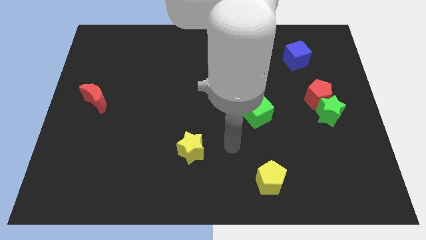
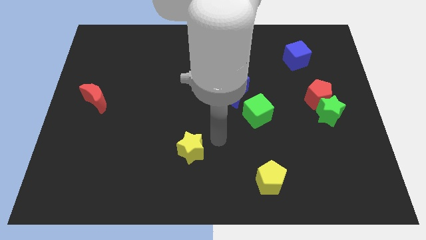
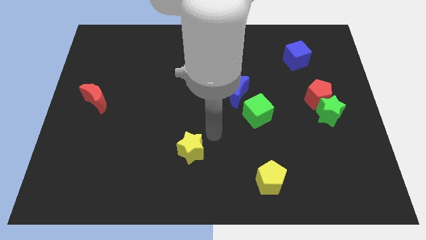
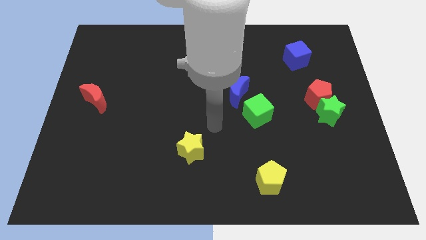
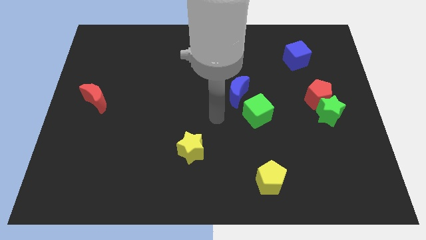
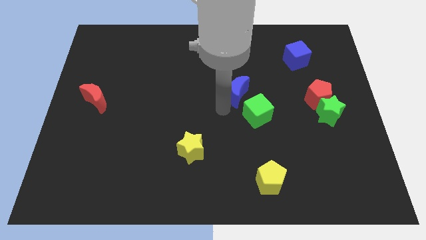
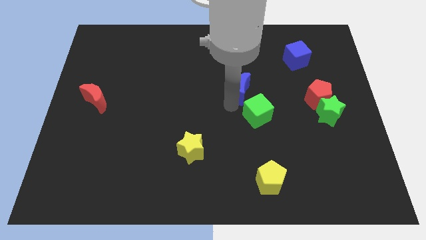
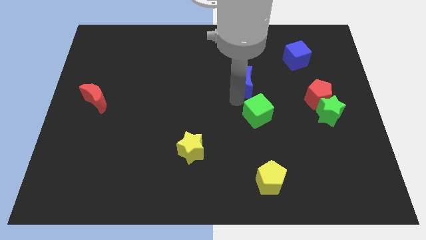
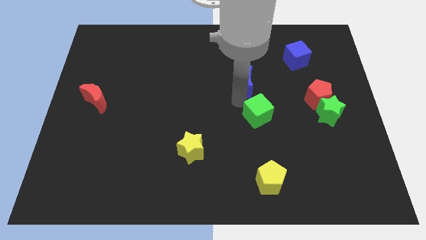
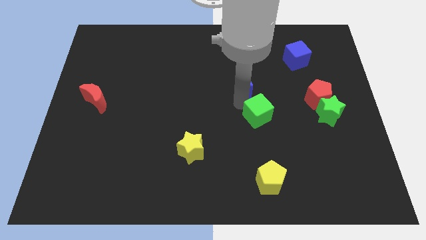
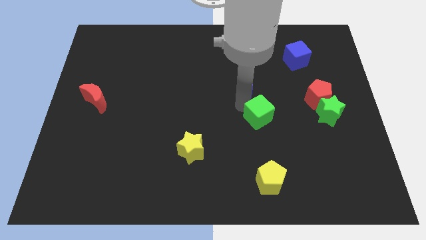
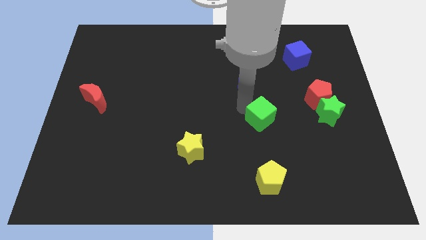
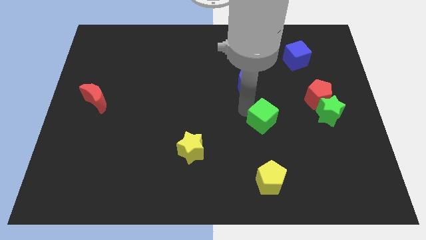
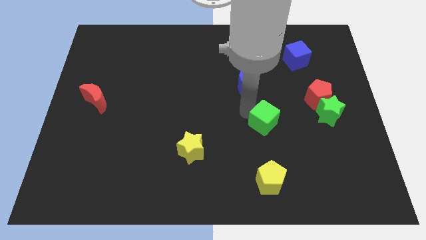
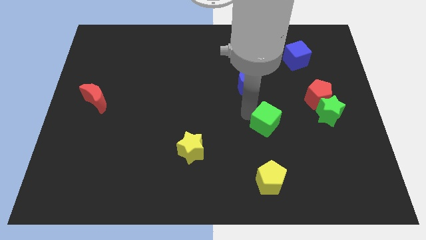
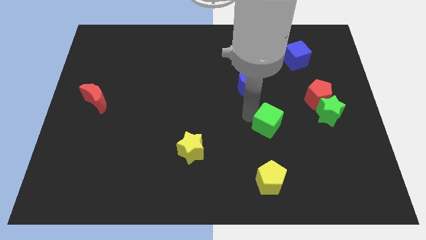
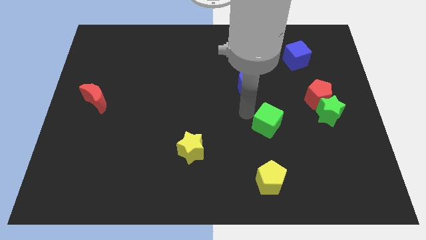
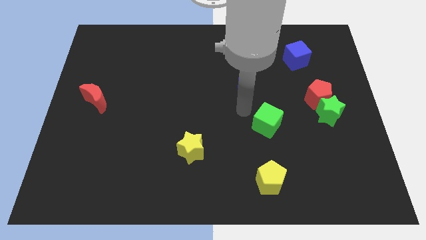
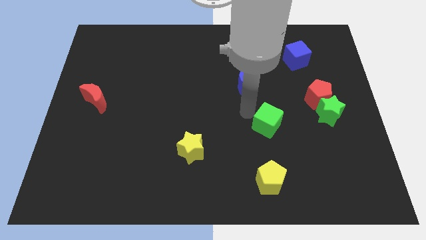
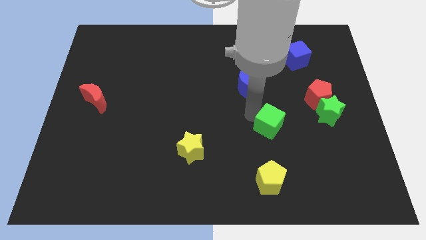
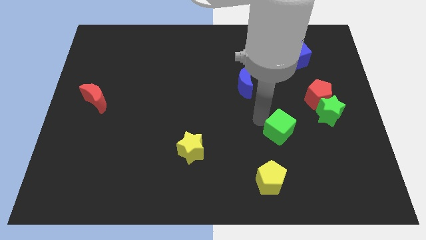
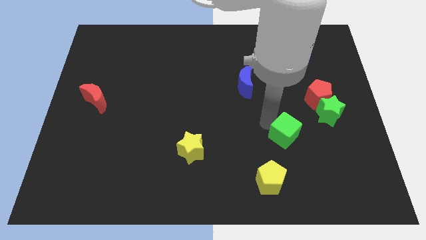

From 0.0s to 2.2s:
slide the green cube diagonally downwards and to the right slightly

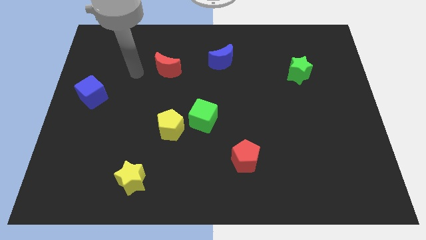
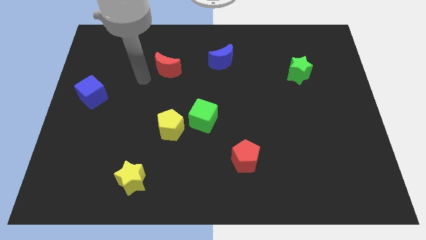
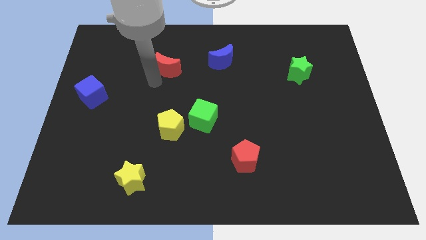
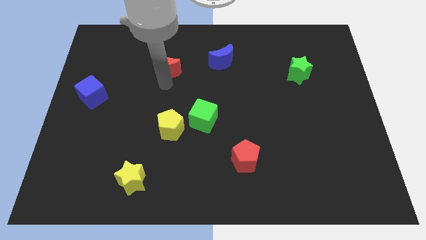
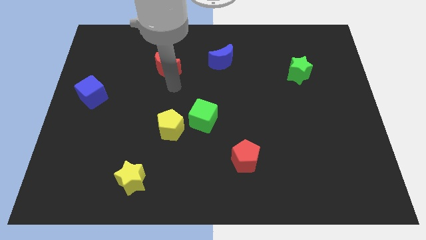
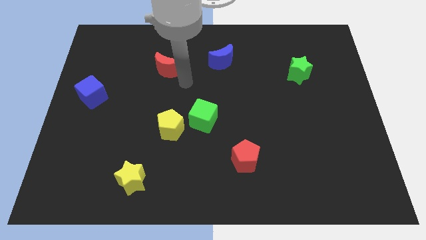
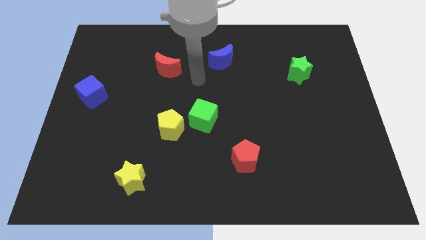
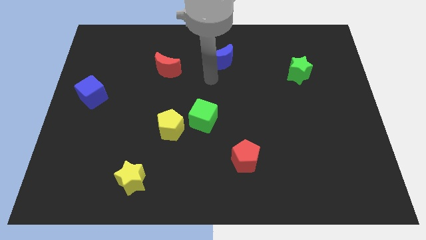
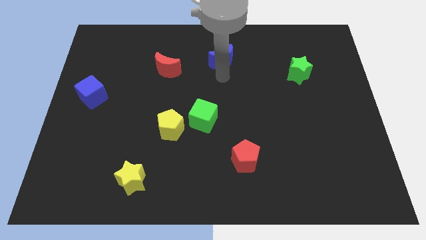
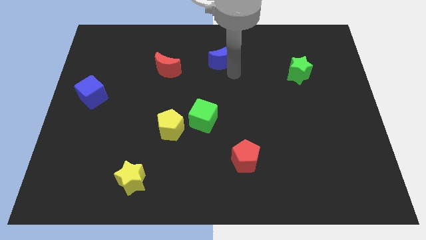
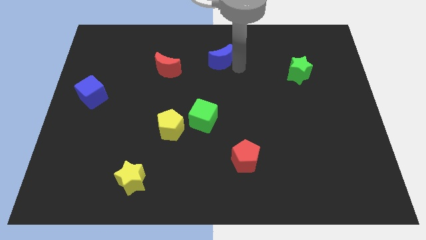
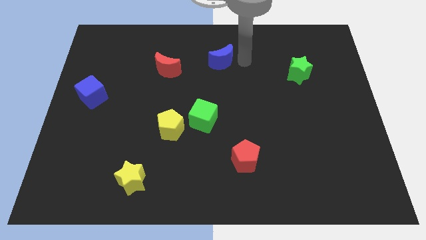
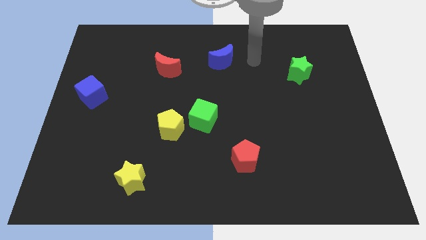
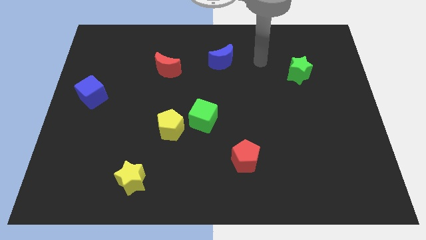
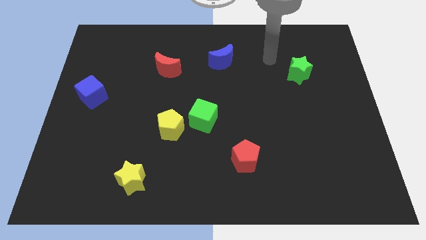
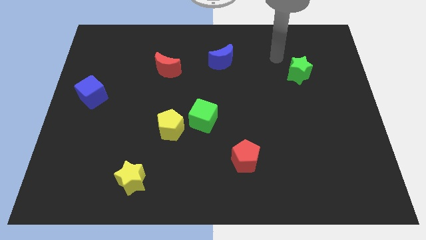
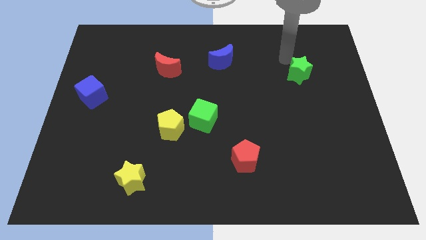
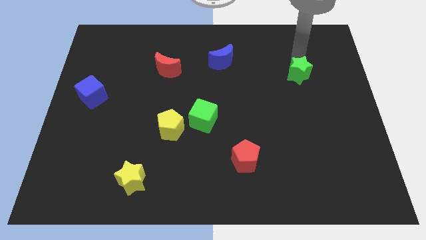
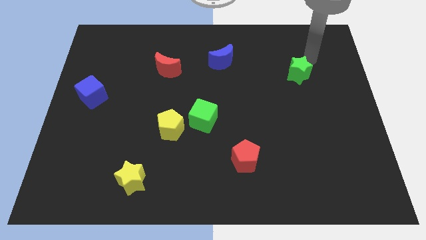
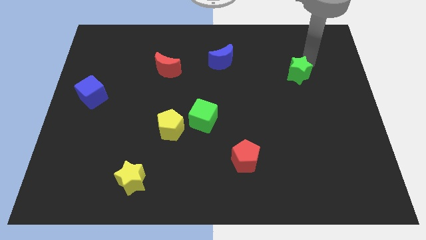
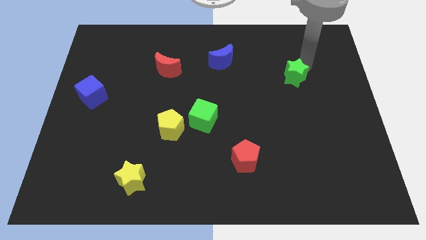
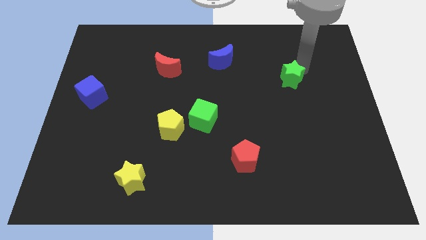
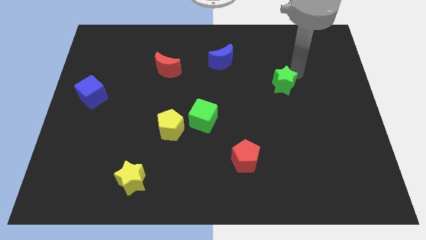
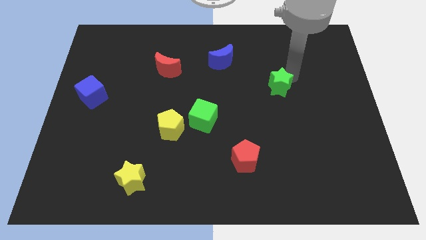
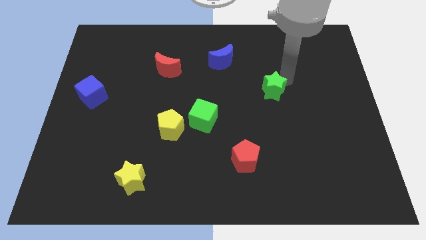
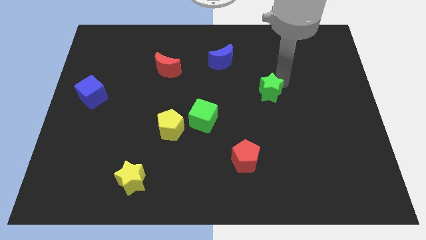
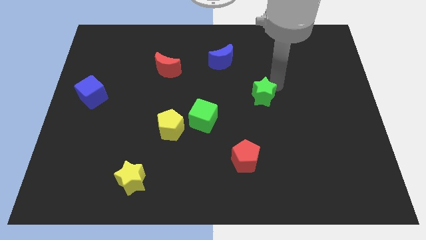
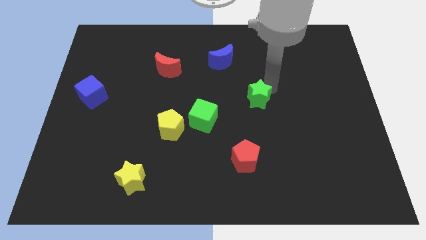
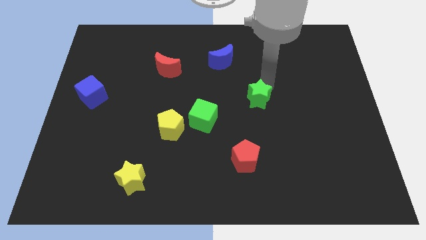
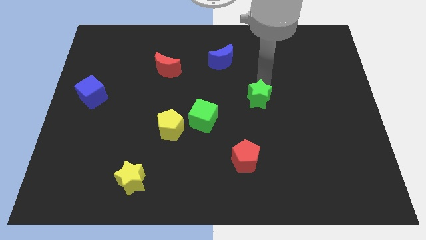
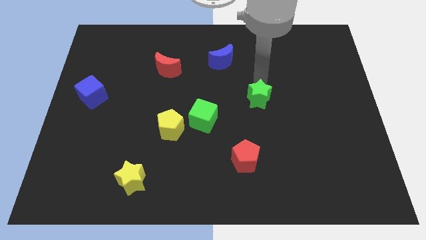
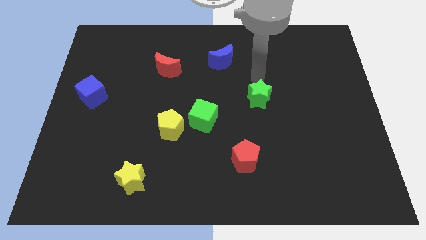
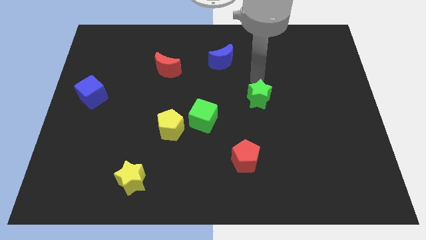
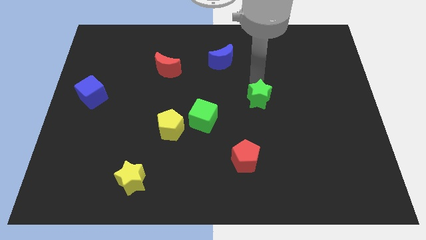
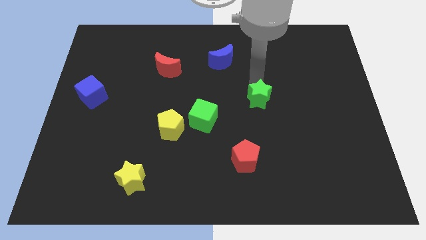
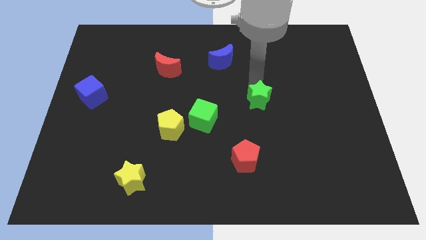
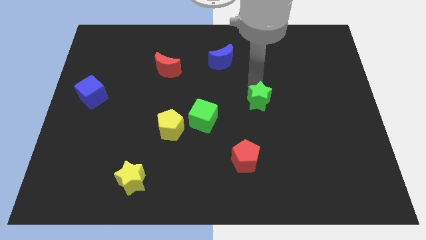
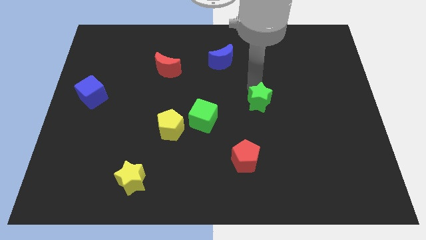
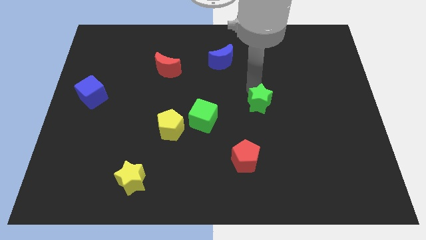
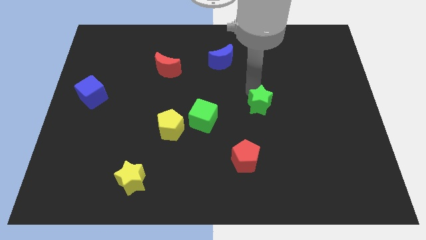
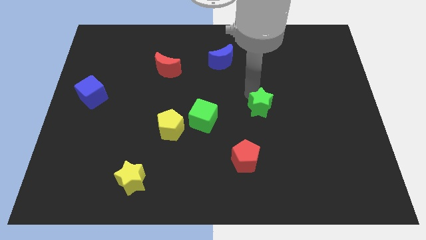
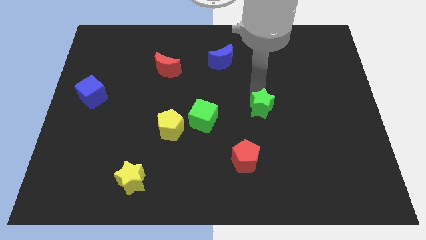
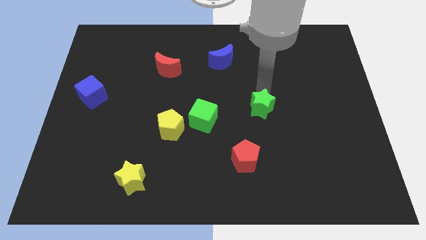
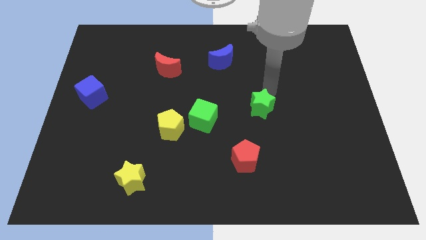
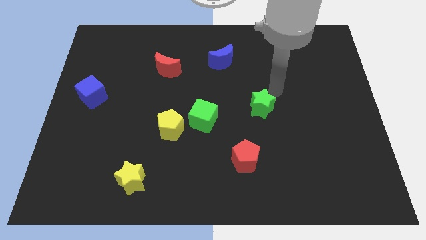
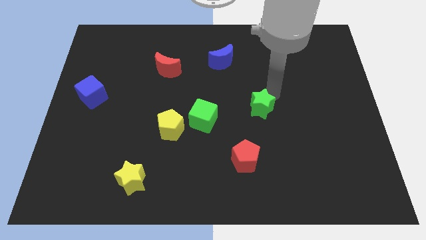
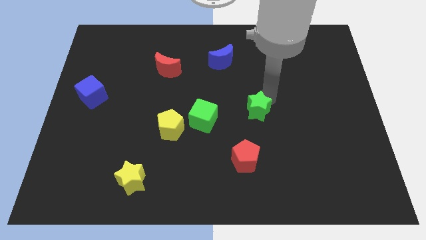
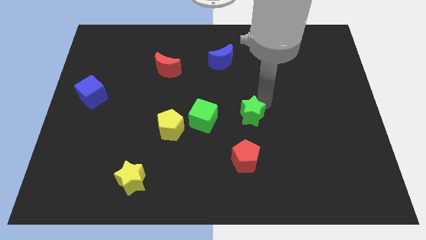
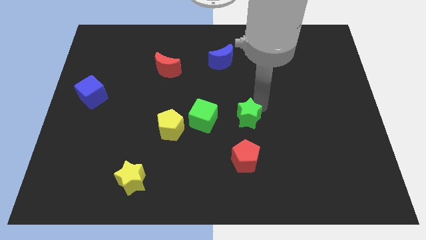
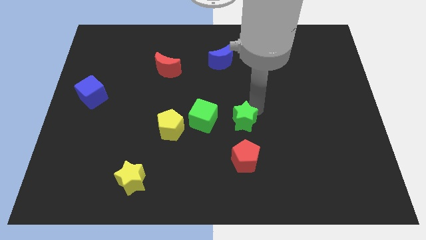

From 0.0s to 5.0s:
slide the green star diagonally downwards and to the left

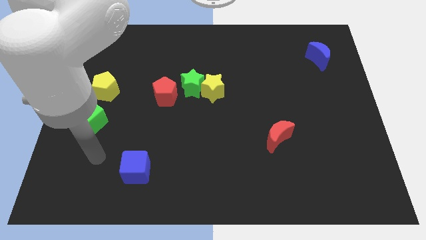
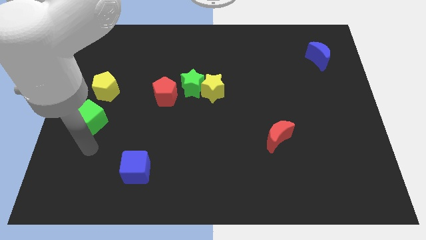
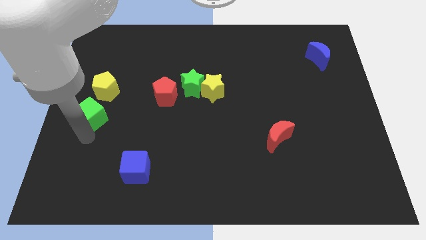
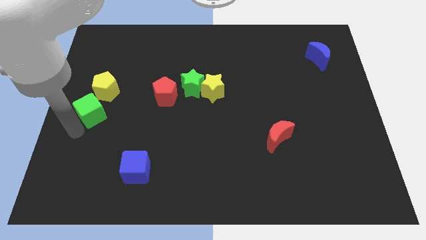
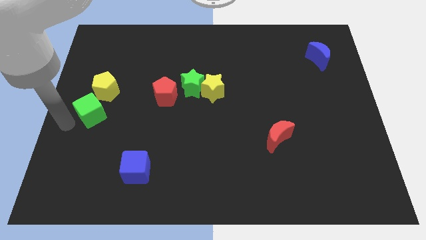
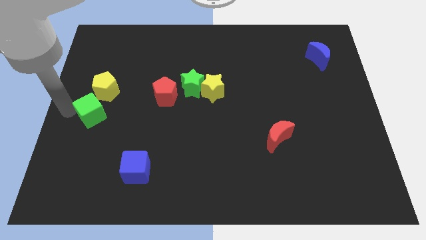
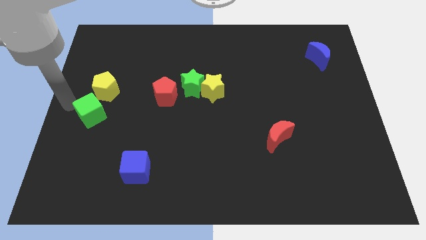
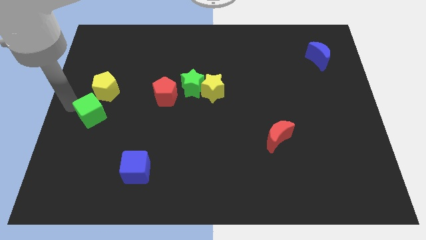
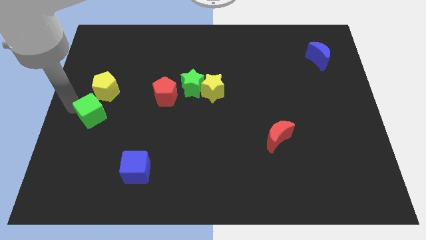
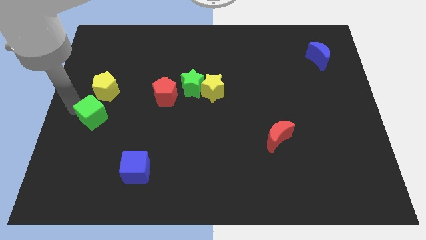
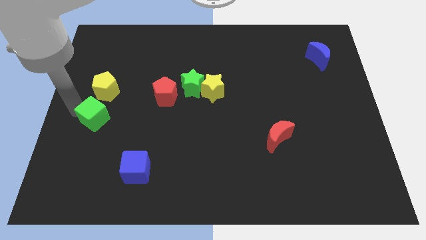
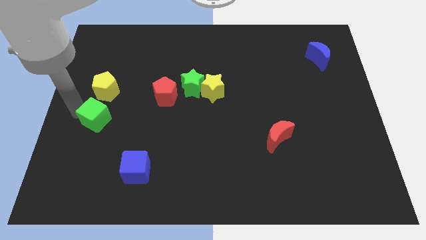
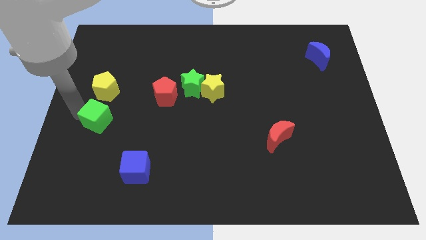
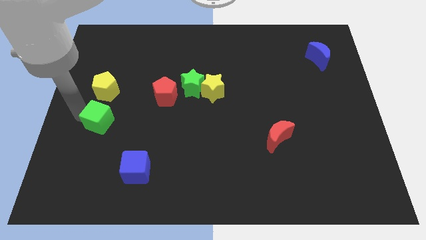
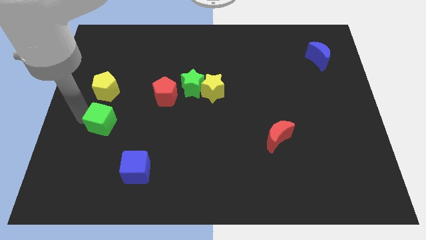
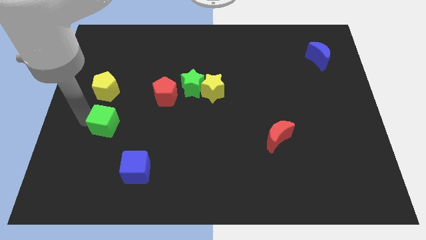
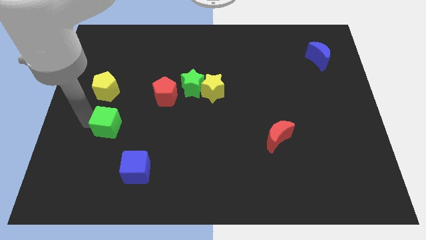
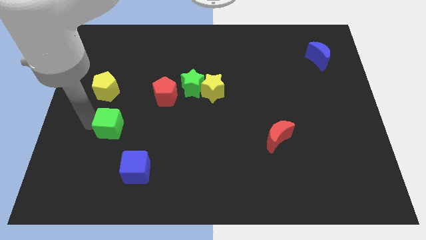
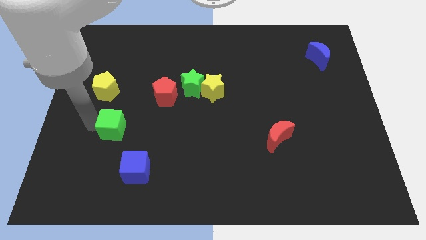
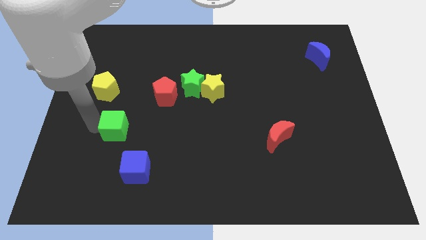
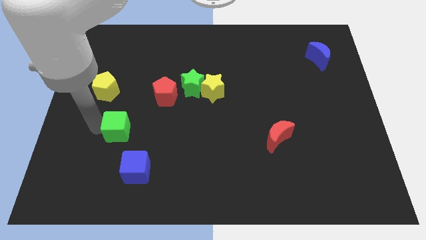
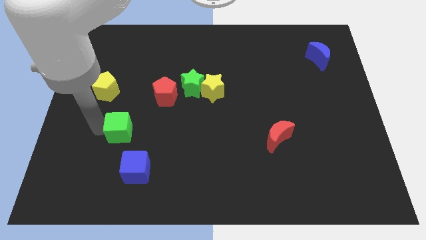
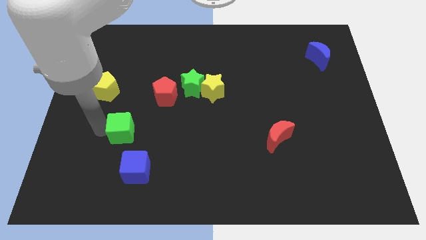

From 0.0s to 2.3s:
push the green cube right slightly
